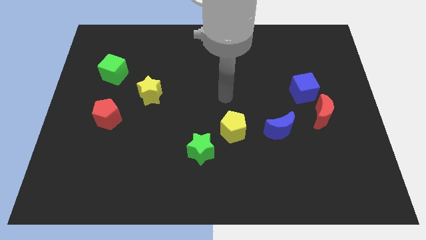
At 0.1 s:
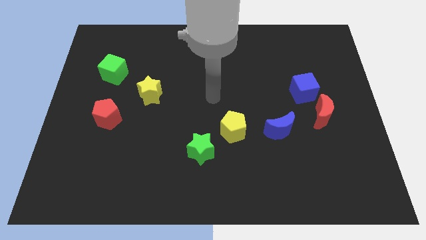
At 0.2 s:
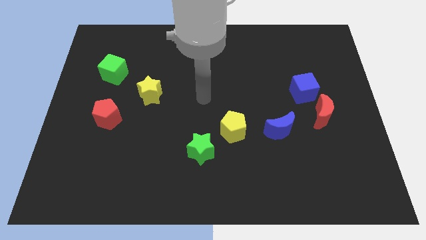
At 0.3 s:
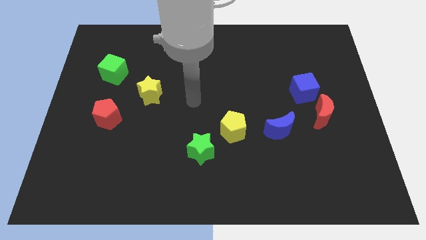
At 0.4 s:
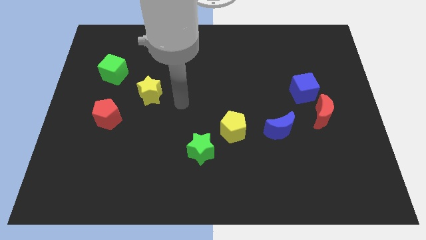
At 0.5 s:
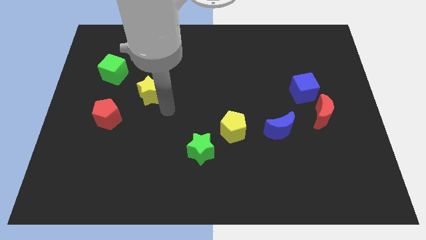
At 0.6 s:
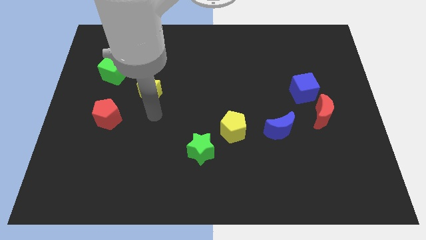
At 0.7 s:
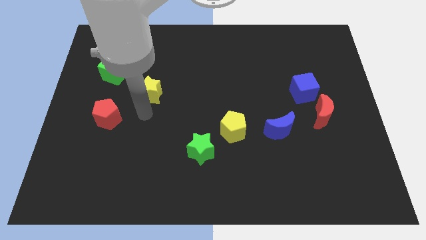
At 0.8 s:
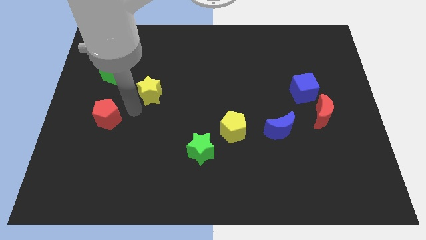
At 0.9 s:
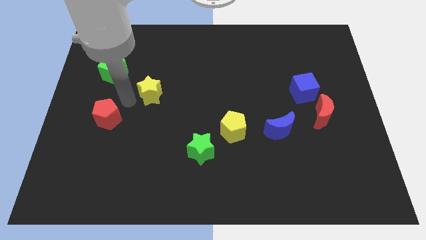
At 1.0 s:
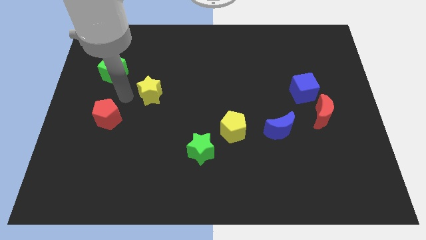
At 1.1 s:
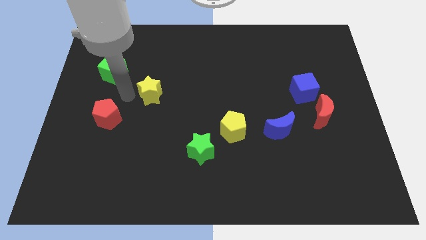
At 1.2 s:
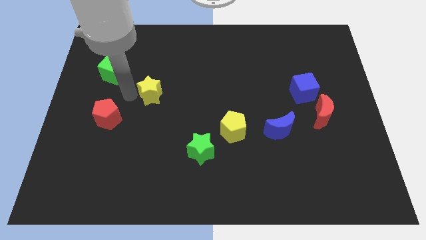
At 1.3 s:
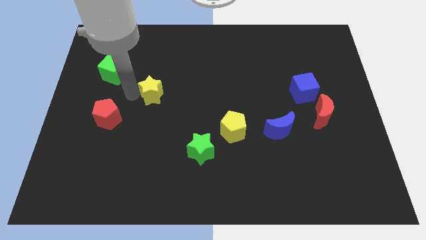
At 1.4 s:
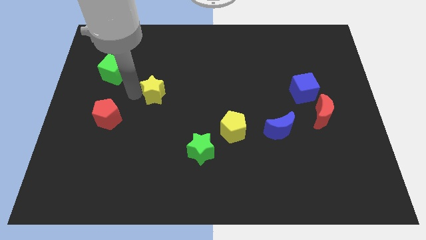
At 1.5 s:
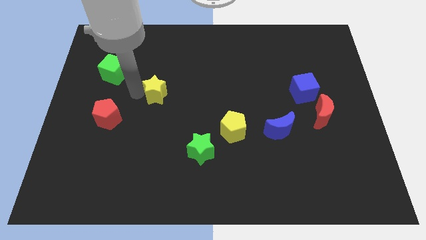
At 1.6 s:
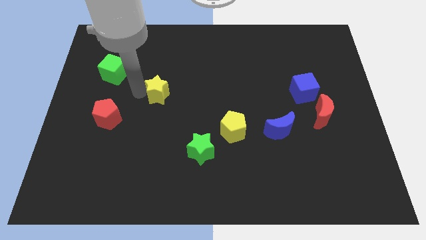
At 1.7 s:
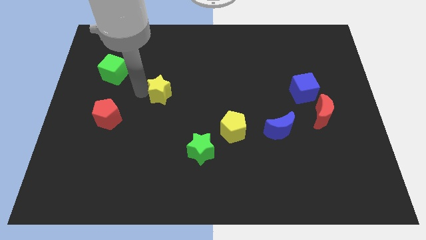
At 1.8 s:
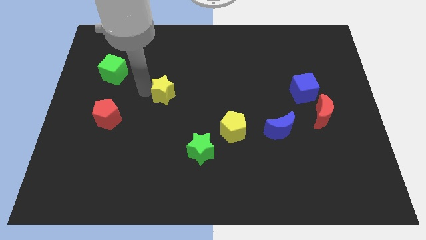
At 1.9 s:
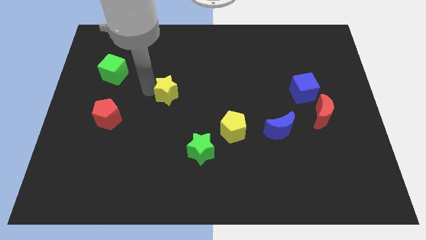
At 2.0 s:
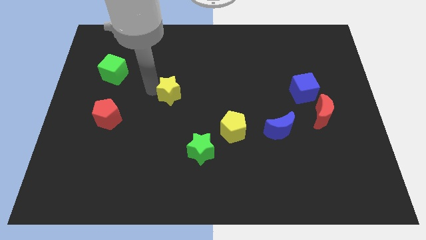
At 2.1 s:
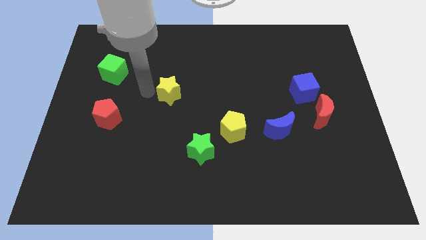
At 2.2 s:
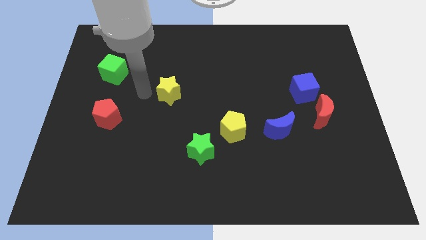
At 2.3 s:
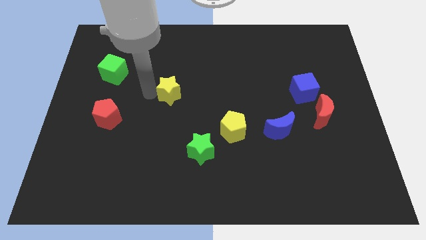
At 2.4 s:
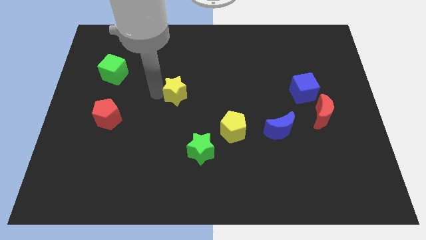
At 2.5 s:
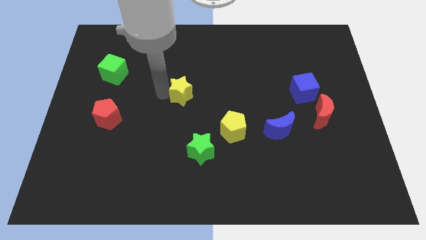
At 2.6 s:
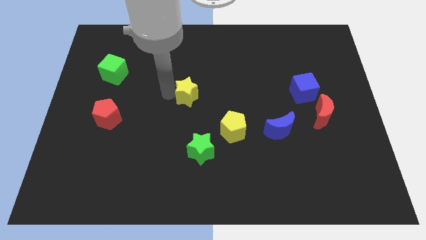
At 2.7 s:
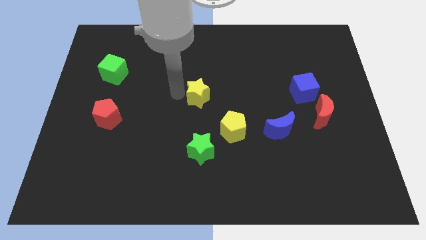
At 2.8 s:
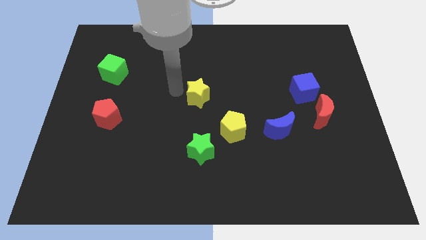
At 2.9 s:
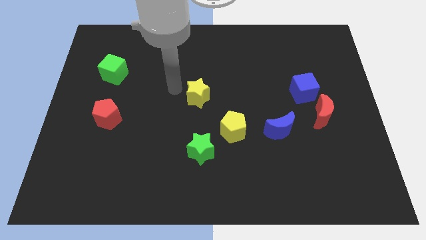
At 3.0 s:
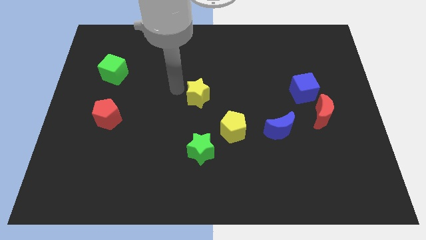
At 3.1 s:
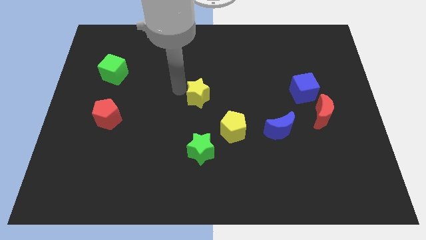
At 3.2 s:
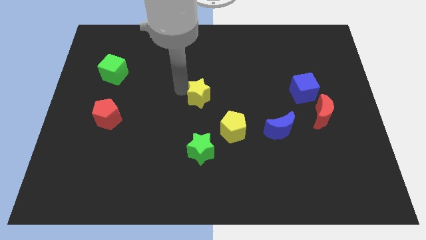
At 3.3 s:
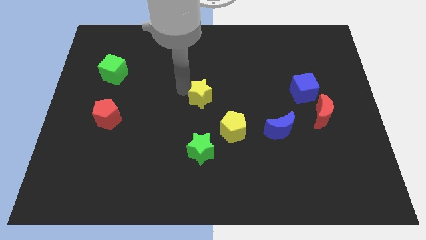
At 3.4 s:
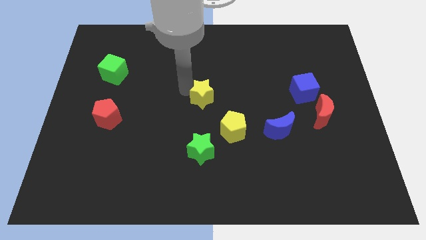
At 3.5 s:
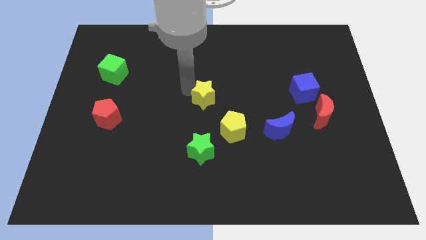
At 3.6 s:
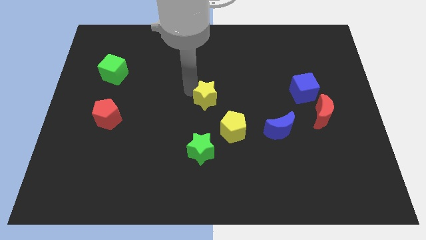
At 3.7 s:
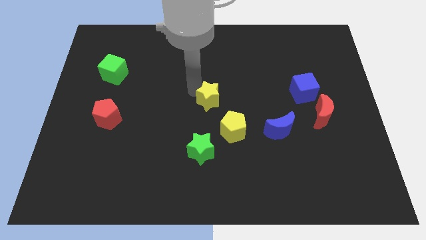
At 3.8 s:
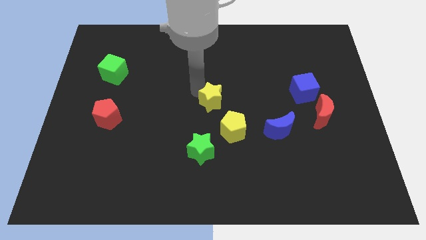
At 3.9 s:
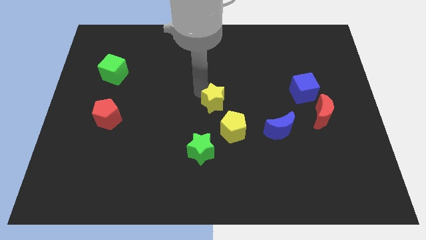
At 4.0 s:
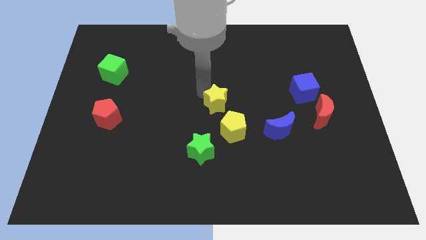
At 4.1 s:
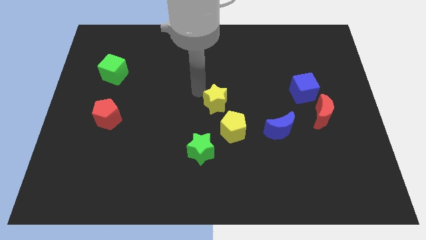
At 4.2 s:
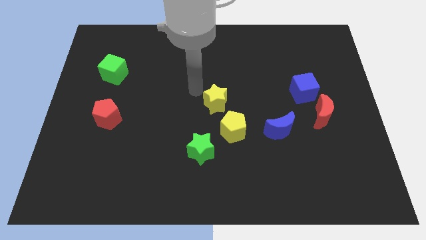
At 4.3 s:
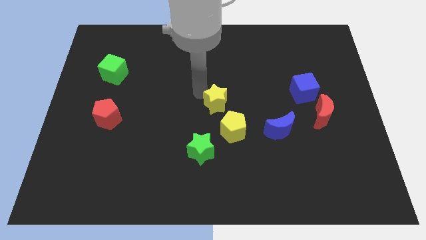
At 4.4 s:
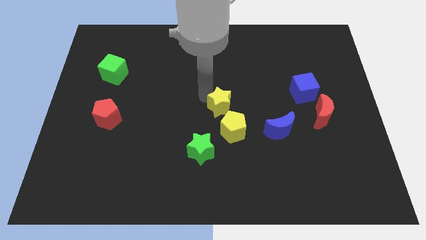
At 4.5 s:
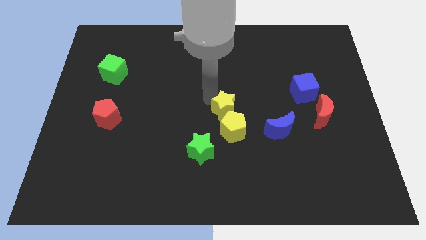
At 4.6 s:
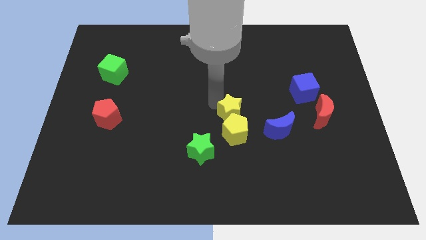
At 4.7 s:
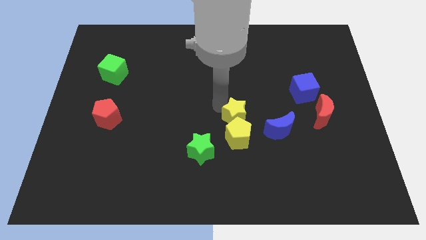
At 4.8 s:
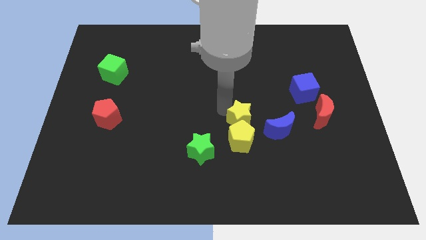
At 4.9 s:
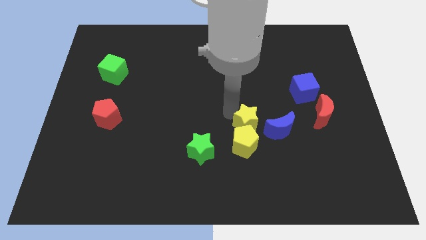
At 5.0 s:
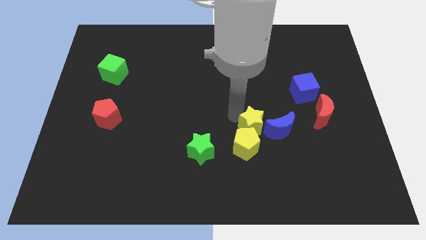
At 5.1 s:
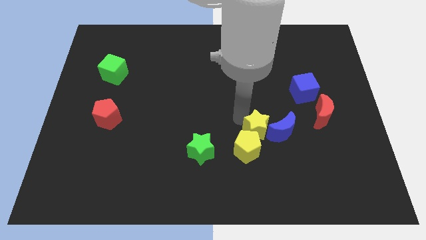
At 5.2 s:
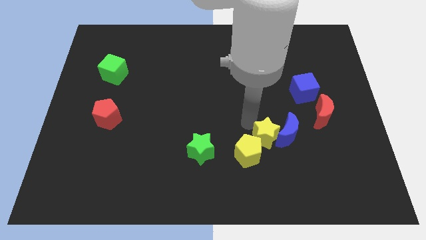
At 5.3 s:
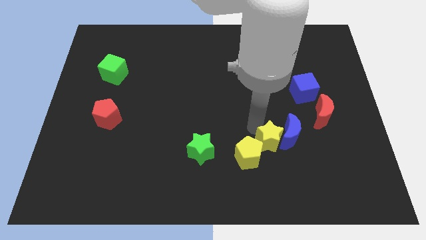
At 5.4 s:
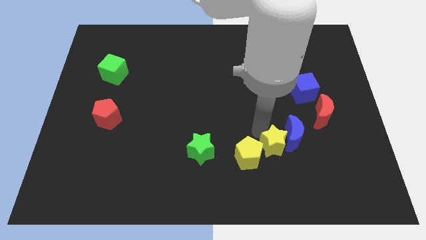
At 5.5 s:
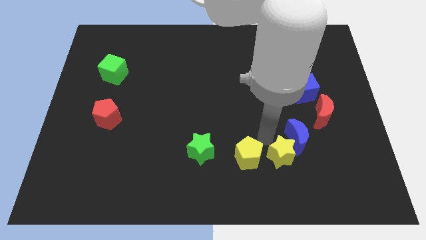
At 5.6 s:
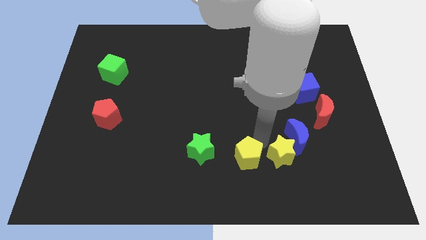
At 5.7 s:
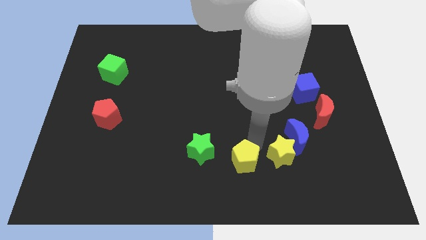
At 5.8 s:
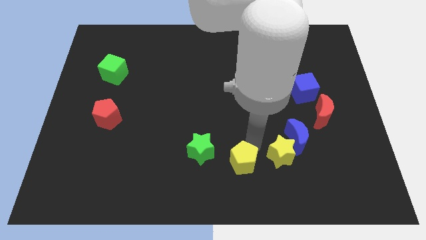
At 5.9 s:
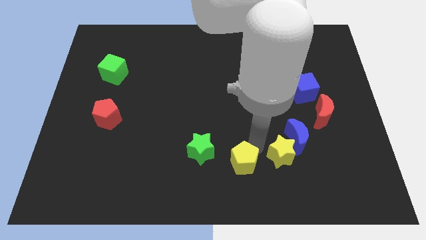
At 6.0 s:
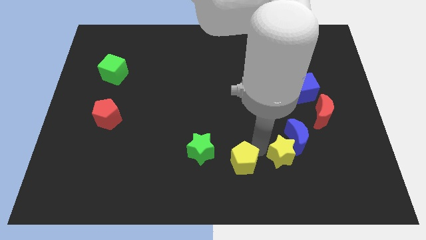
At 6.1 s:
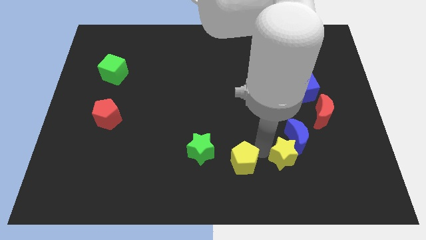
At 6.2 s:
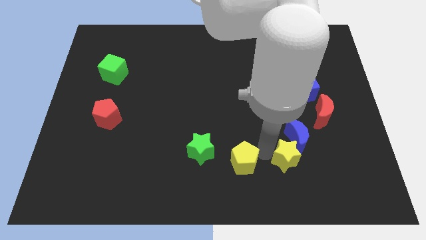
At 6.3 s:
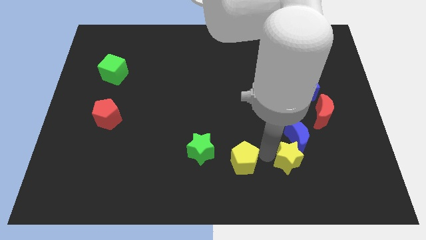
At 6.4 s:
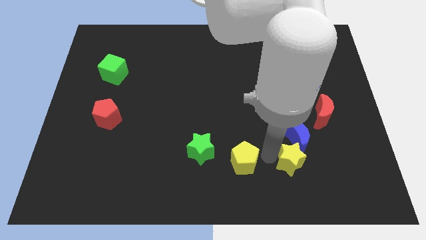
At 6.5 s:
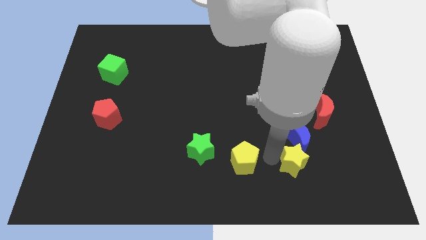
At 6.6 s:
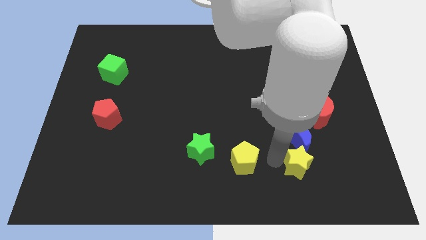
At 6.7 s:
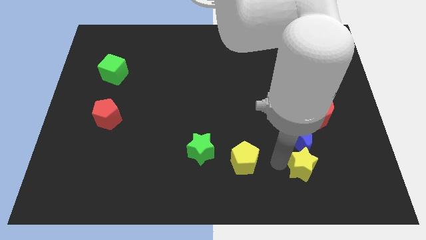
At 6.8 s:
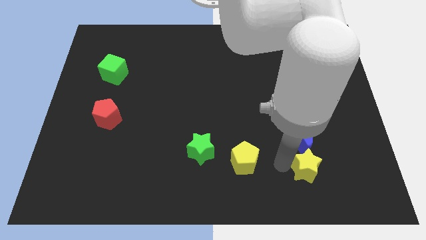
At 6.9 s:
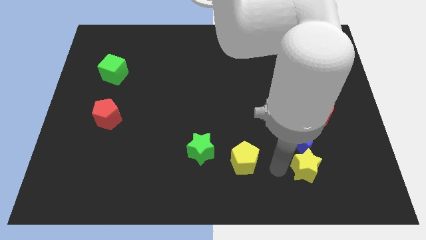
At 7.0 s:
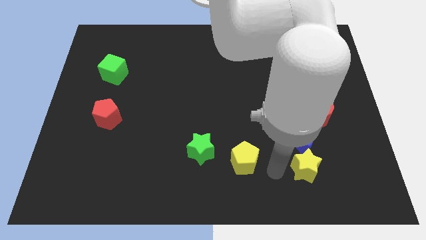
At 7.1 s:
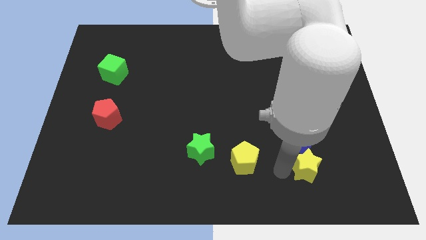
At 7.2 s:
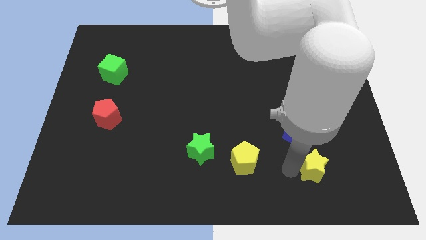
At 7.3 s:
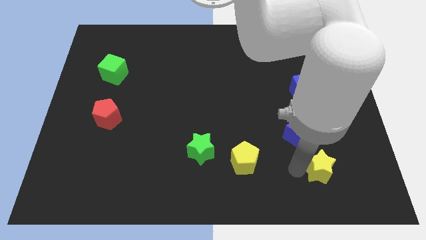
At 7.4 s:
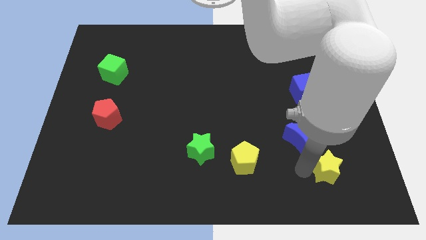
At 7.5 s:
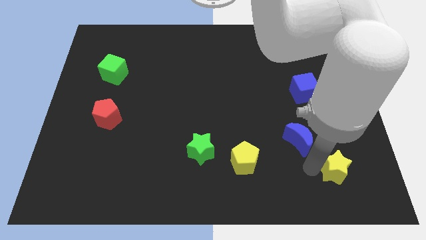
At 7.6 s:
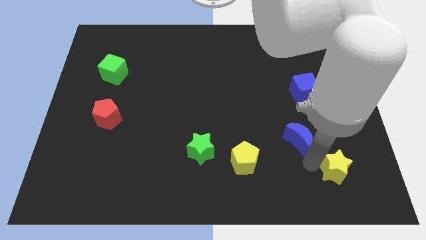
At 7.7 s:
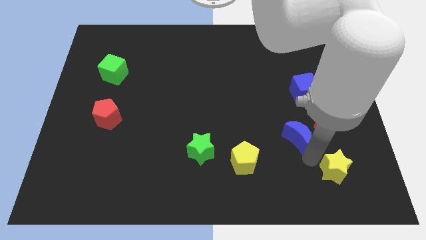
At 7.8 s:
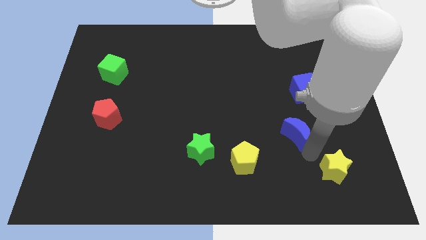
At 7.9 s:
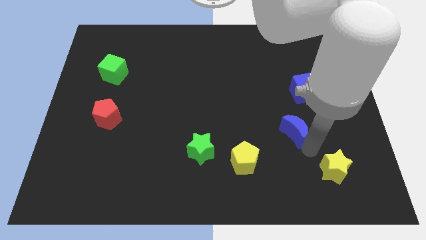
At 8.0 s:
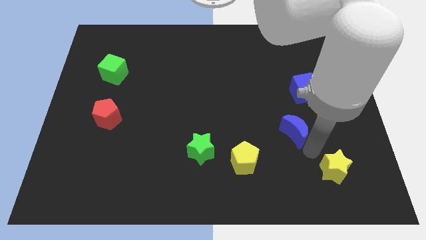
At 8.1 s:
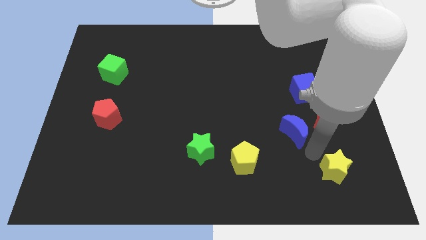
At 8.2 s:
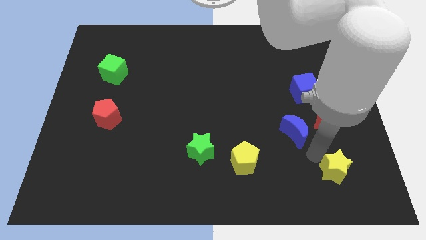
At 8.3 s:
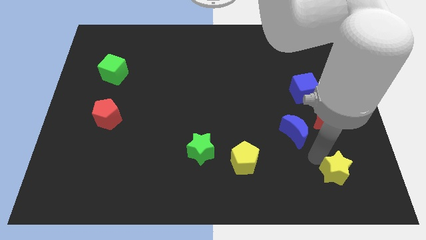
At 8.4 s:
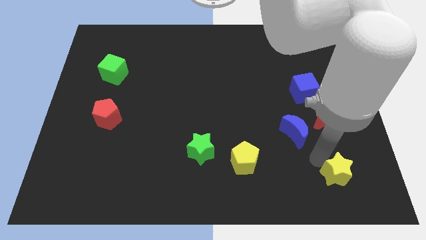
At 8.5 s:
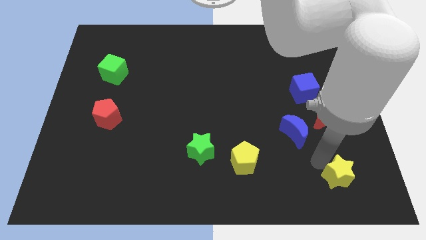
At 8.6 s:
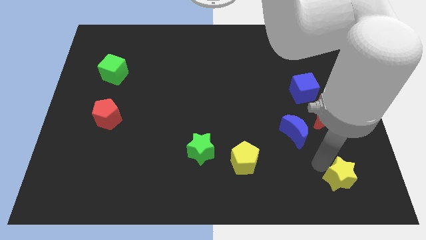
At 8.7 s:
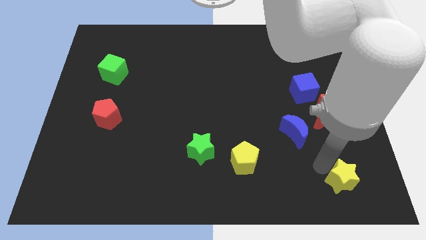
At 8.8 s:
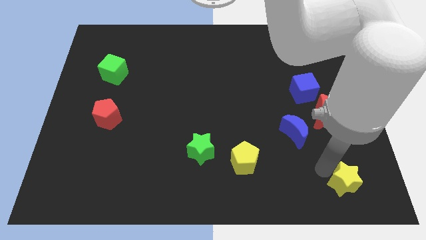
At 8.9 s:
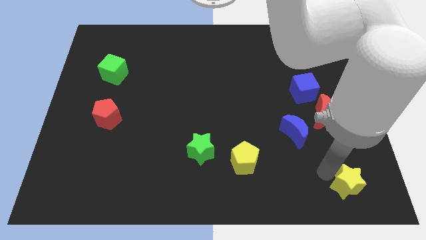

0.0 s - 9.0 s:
put the yellow star to the bottom right corner
